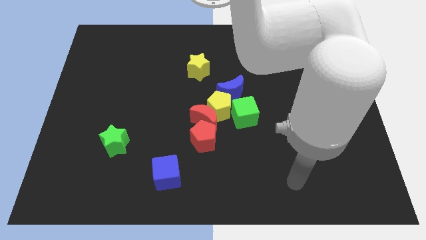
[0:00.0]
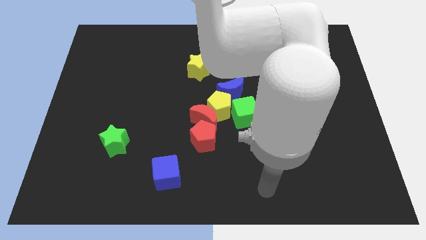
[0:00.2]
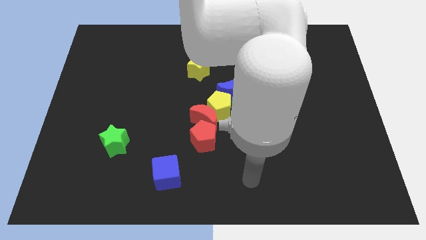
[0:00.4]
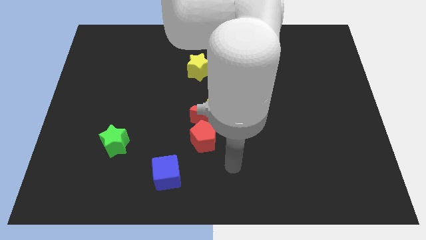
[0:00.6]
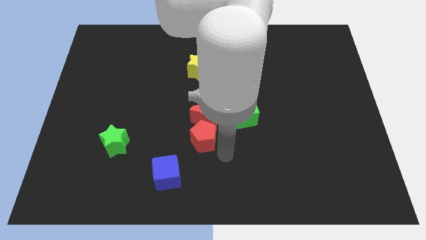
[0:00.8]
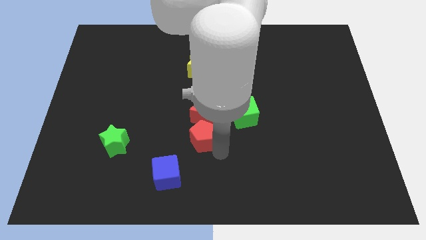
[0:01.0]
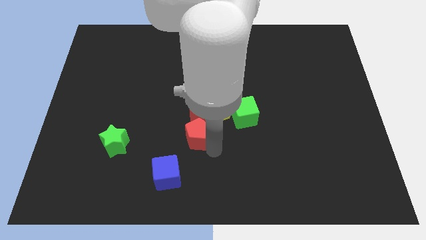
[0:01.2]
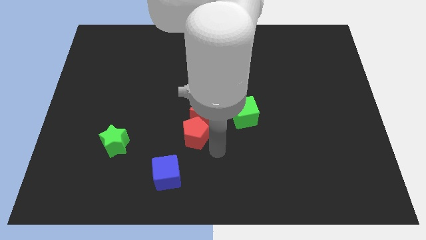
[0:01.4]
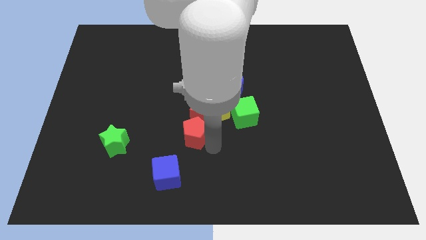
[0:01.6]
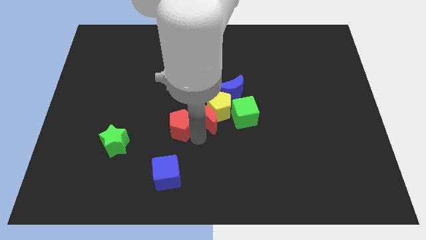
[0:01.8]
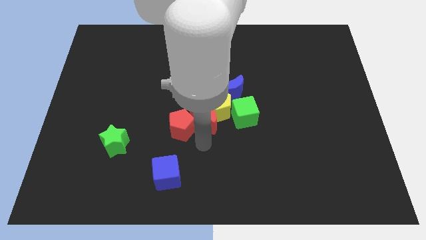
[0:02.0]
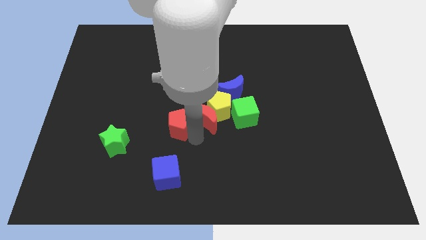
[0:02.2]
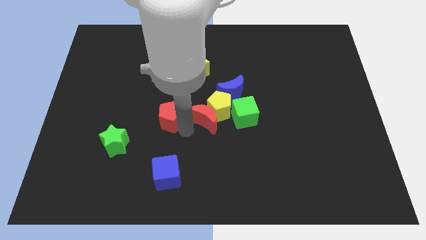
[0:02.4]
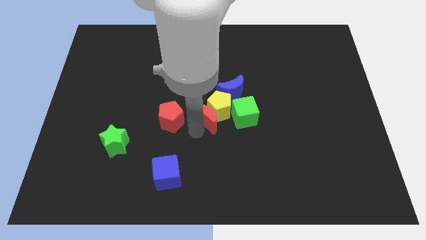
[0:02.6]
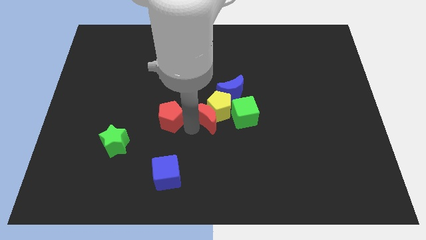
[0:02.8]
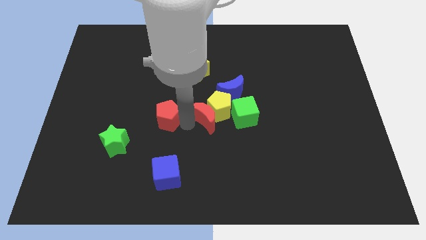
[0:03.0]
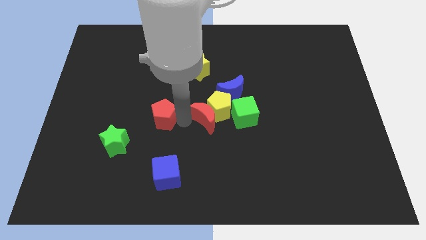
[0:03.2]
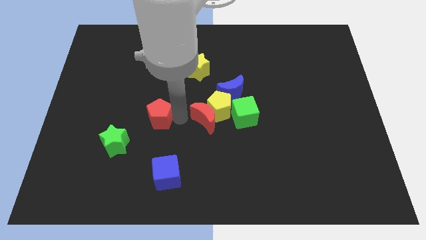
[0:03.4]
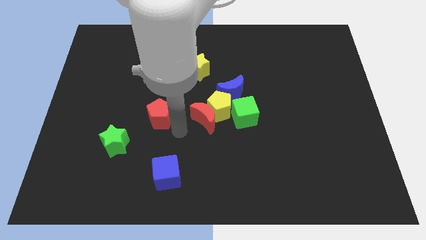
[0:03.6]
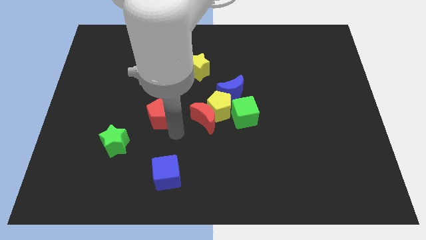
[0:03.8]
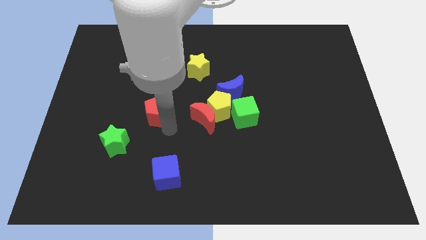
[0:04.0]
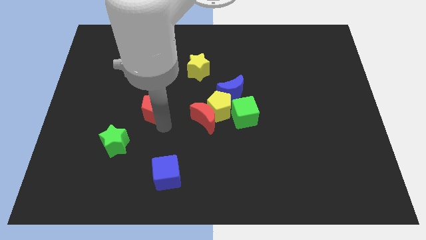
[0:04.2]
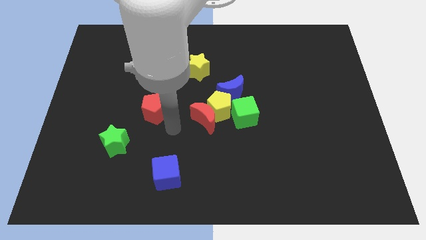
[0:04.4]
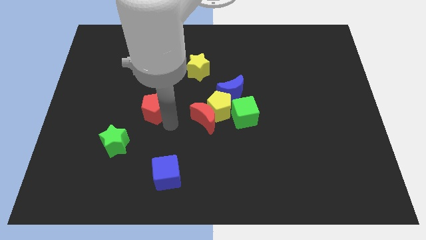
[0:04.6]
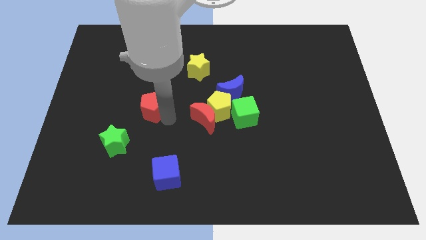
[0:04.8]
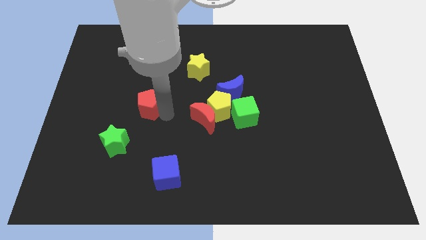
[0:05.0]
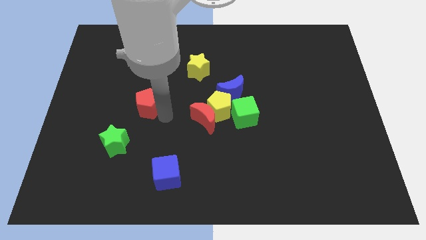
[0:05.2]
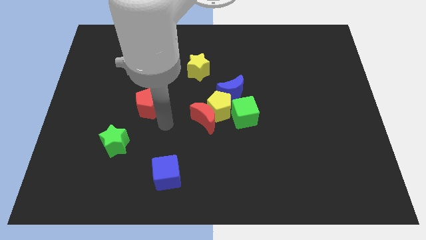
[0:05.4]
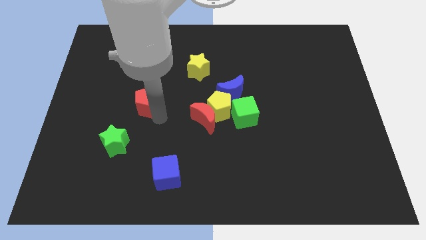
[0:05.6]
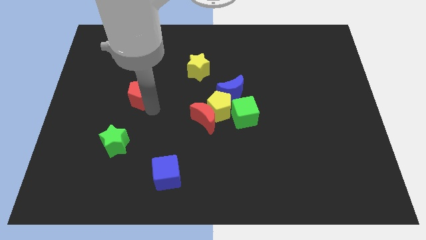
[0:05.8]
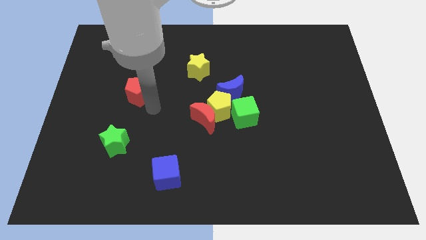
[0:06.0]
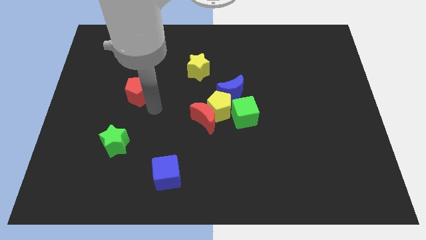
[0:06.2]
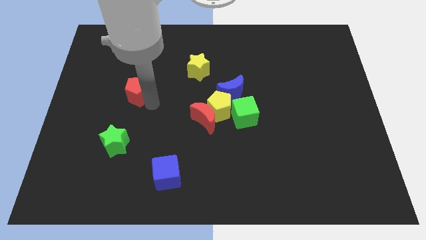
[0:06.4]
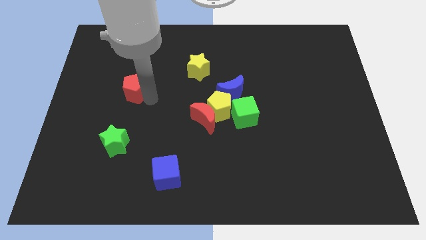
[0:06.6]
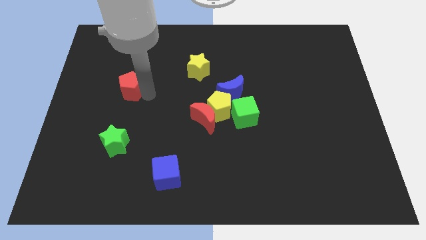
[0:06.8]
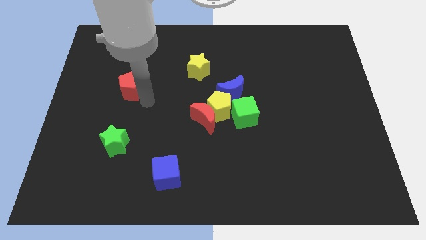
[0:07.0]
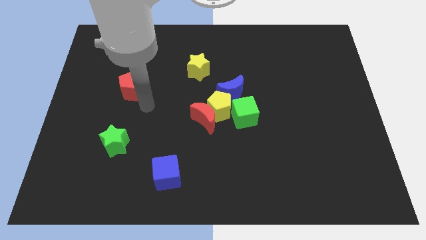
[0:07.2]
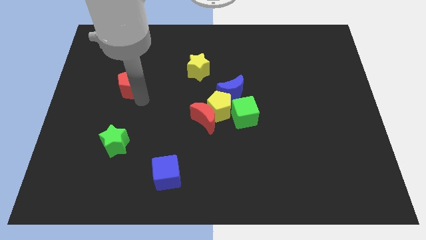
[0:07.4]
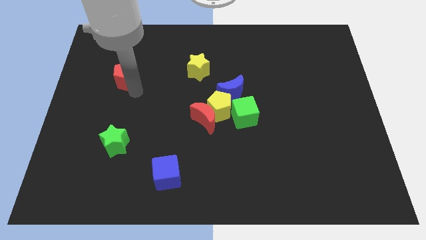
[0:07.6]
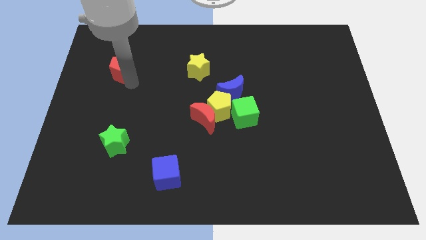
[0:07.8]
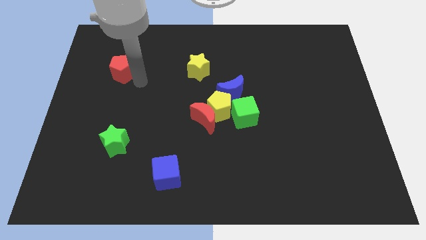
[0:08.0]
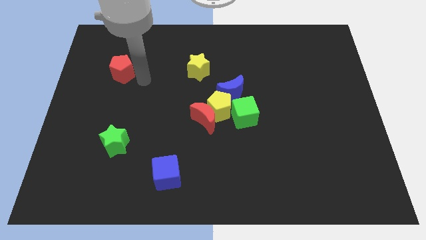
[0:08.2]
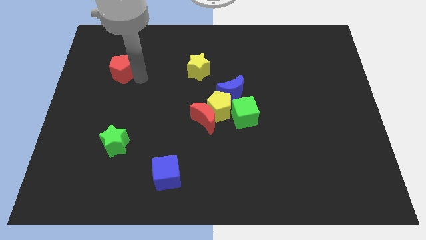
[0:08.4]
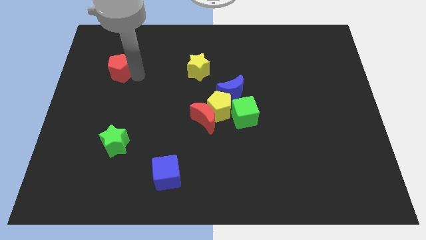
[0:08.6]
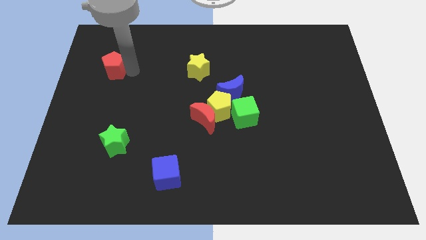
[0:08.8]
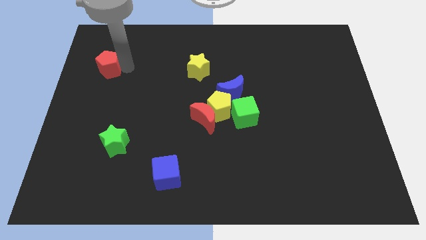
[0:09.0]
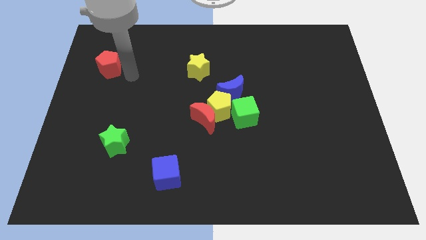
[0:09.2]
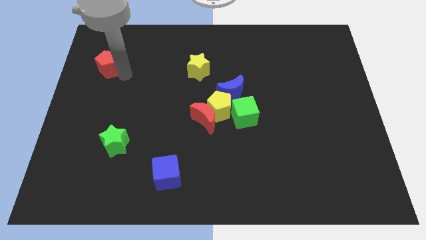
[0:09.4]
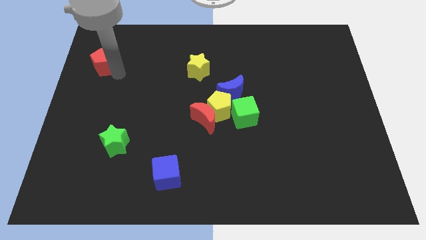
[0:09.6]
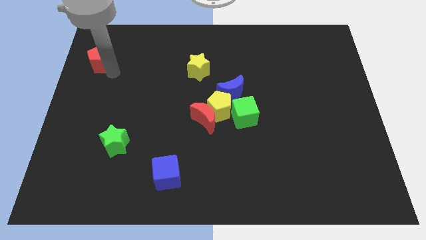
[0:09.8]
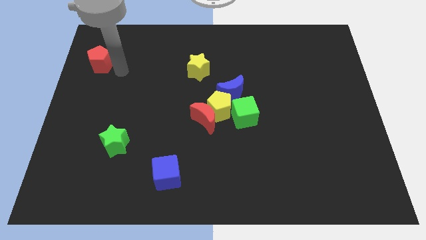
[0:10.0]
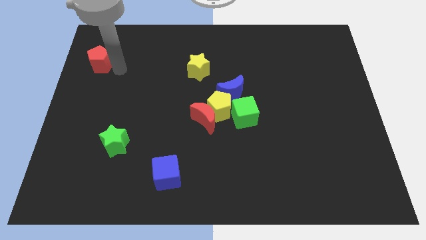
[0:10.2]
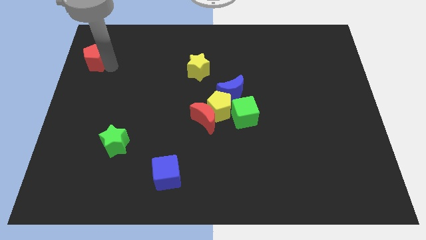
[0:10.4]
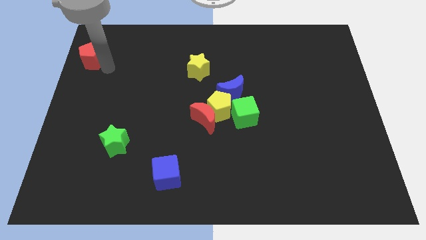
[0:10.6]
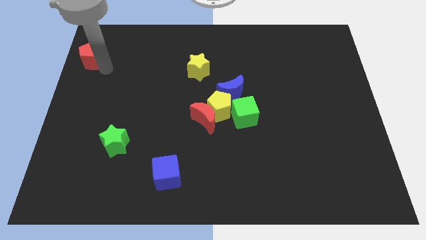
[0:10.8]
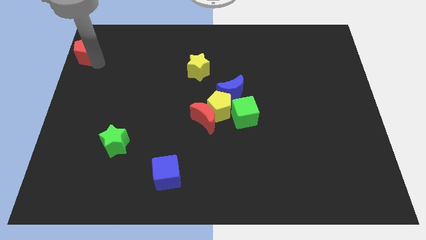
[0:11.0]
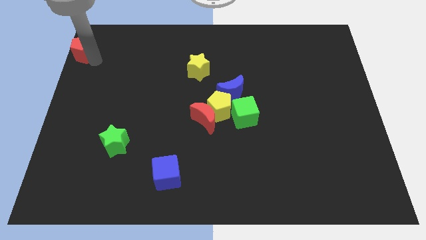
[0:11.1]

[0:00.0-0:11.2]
push the red pentagon to the top left corner

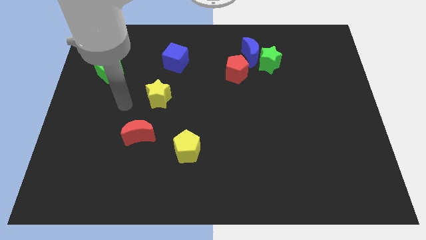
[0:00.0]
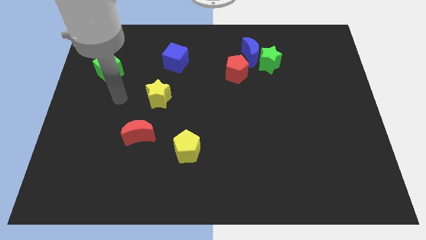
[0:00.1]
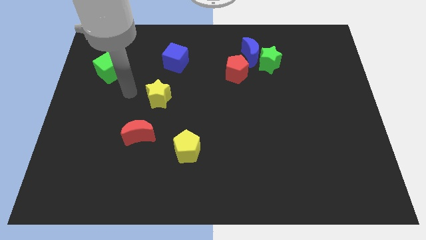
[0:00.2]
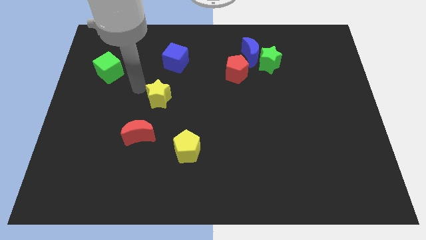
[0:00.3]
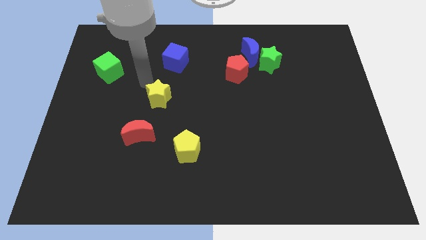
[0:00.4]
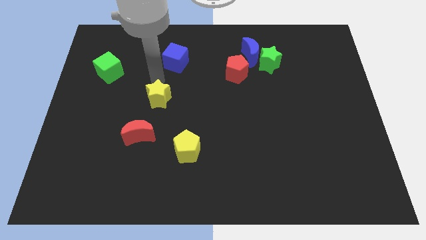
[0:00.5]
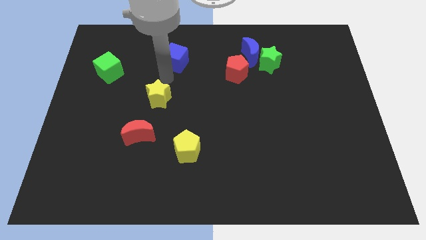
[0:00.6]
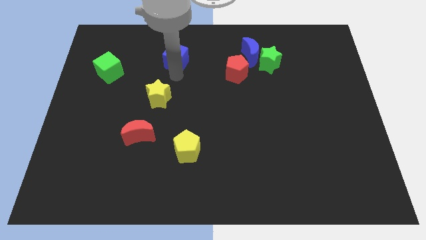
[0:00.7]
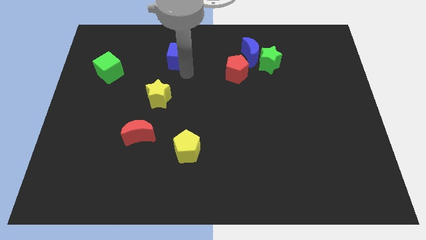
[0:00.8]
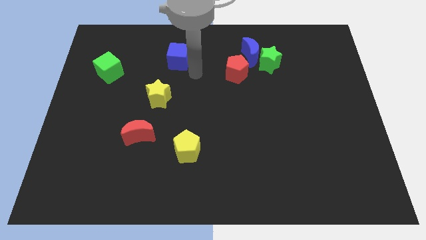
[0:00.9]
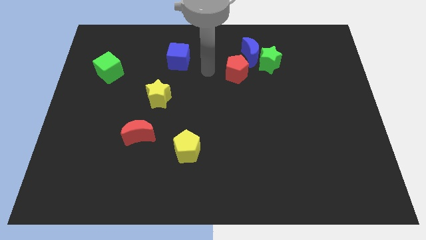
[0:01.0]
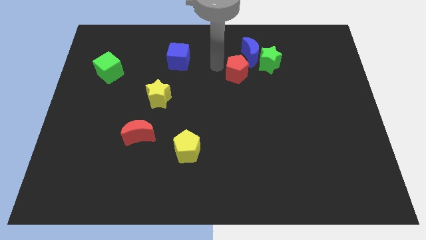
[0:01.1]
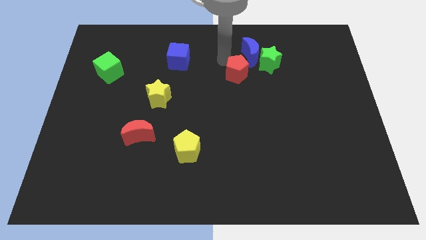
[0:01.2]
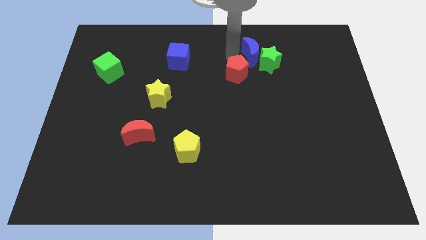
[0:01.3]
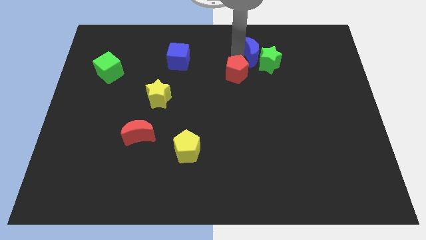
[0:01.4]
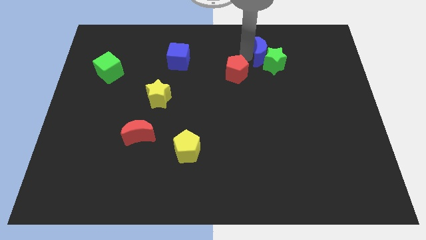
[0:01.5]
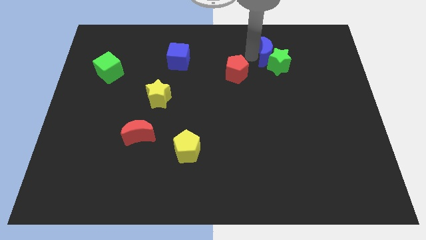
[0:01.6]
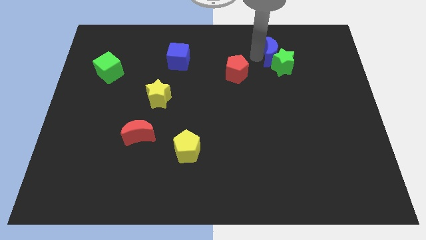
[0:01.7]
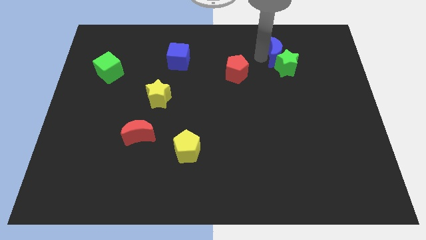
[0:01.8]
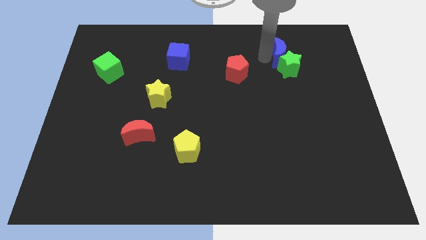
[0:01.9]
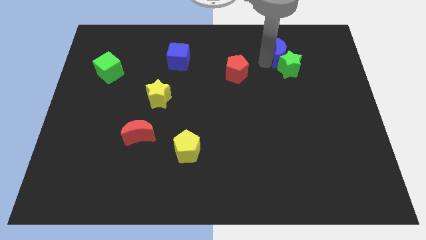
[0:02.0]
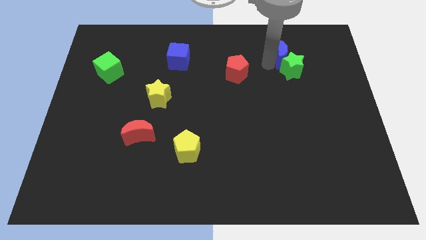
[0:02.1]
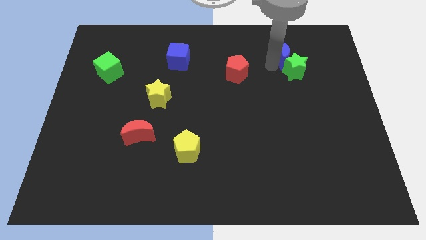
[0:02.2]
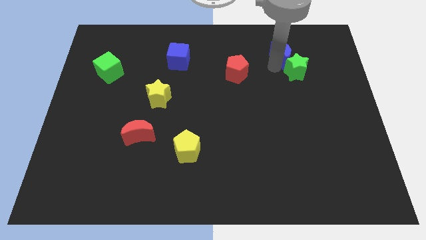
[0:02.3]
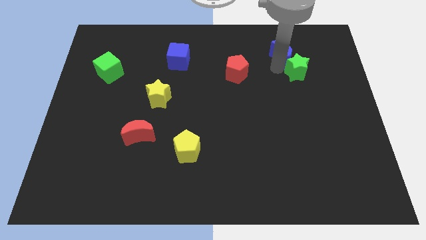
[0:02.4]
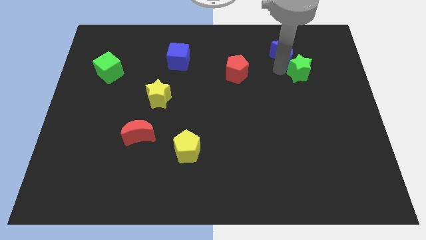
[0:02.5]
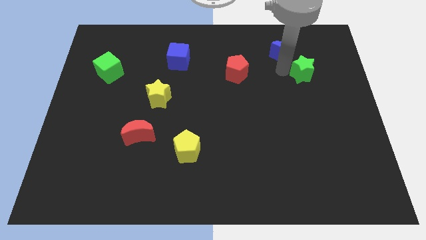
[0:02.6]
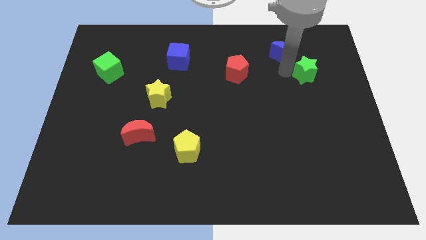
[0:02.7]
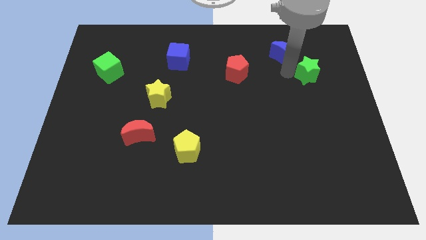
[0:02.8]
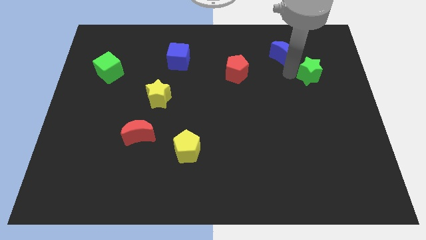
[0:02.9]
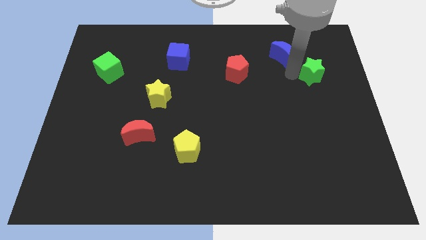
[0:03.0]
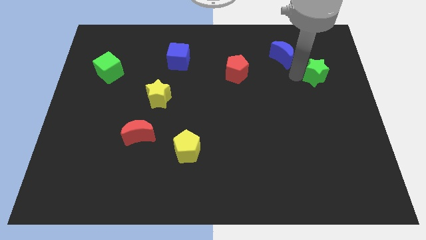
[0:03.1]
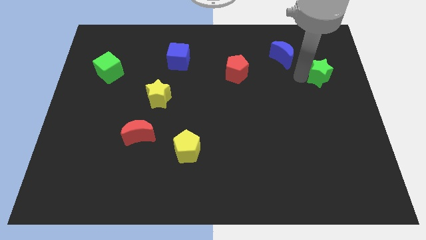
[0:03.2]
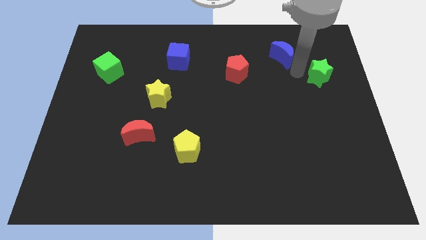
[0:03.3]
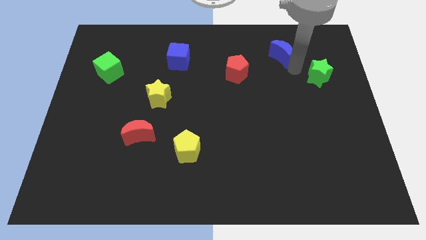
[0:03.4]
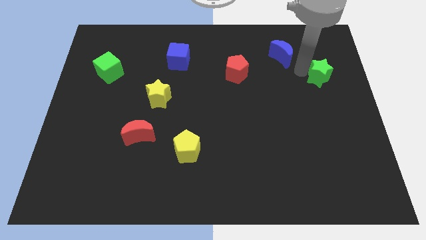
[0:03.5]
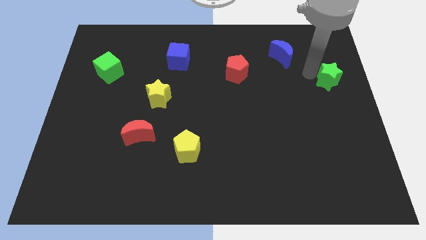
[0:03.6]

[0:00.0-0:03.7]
slide the green star to the right side of the board
